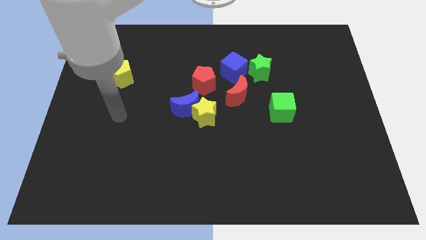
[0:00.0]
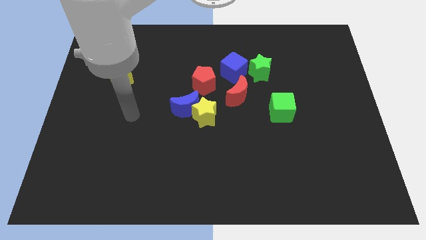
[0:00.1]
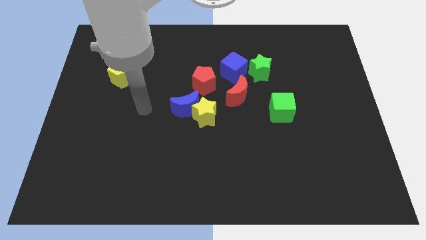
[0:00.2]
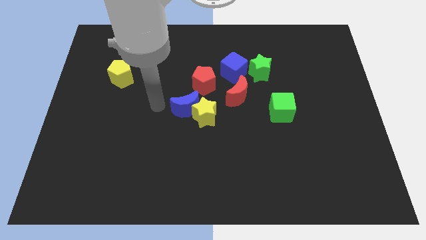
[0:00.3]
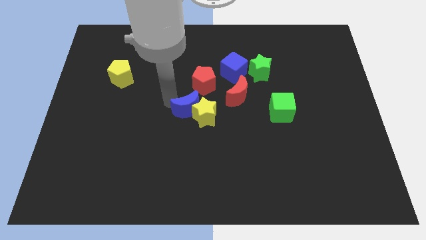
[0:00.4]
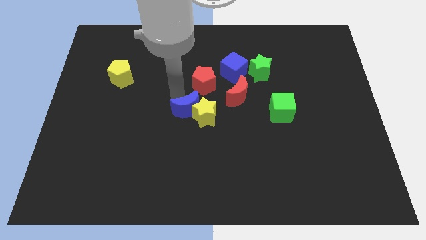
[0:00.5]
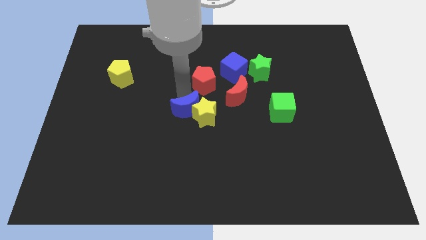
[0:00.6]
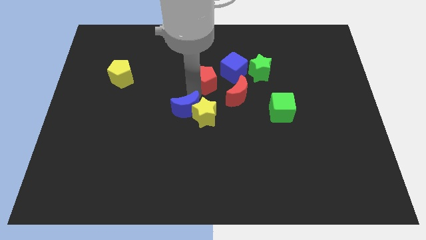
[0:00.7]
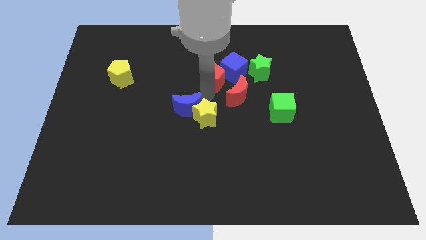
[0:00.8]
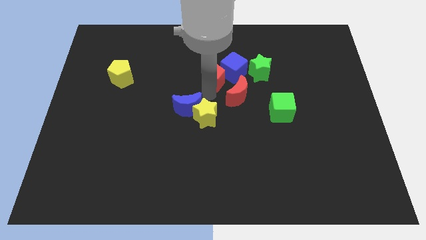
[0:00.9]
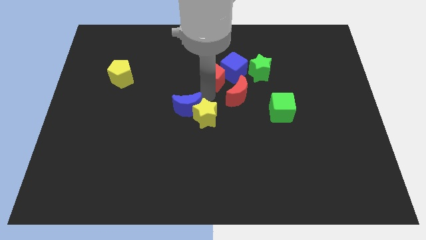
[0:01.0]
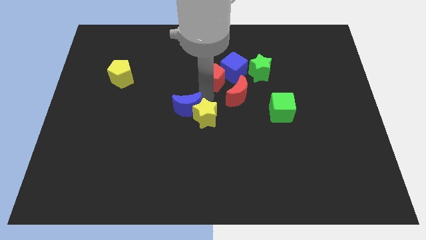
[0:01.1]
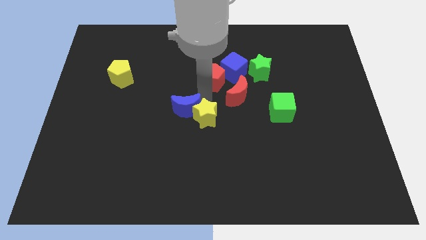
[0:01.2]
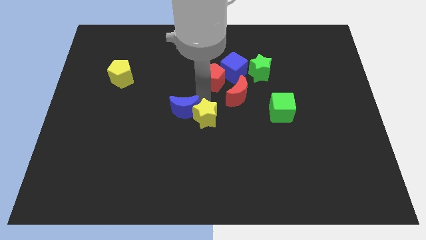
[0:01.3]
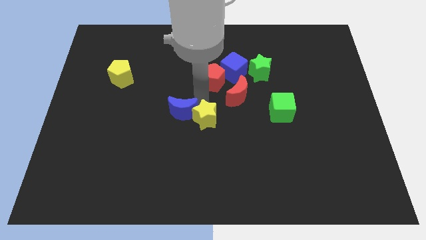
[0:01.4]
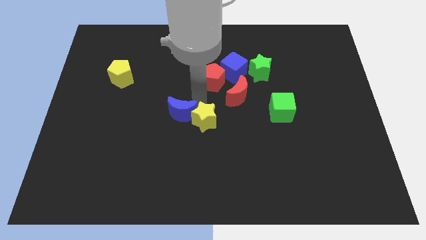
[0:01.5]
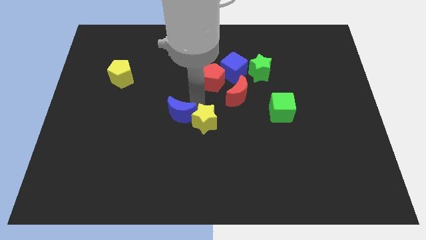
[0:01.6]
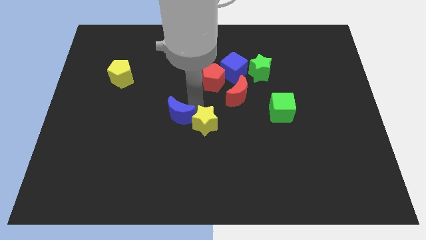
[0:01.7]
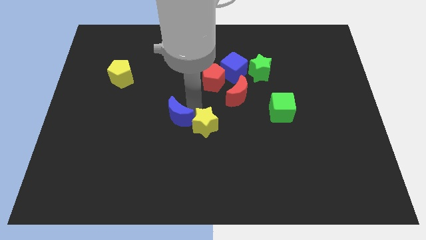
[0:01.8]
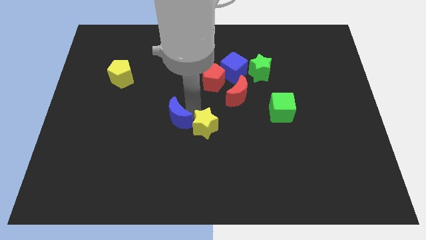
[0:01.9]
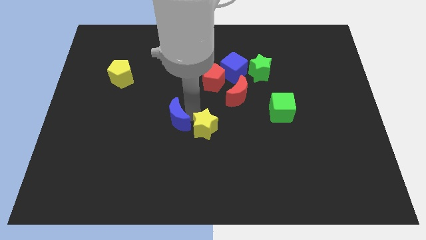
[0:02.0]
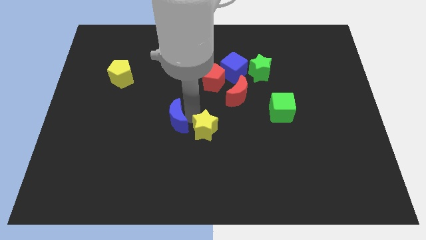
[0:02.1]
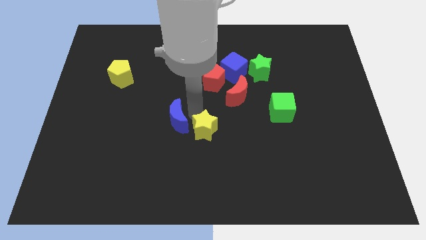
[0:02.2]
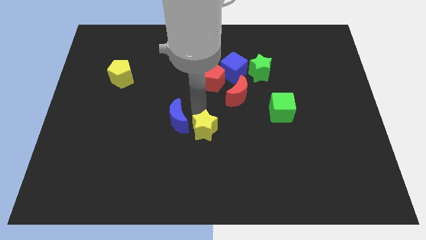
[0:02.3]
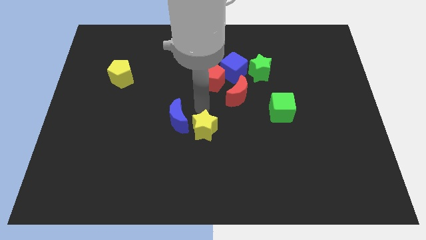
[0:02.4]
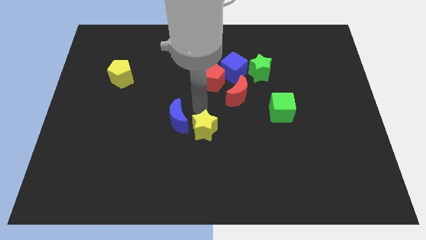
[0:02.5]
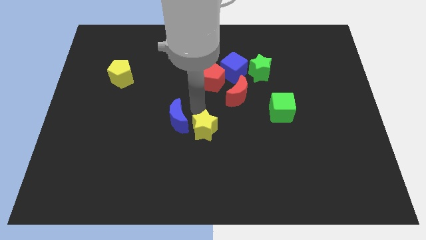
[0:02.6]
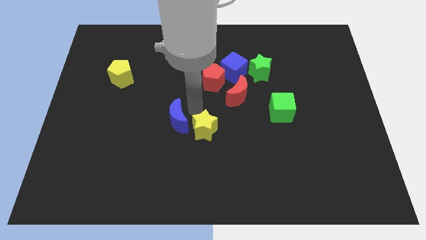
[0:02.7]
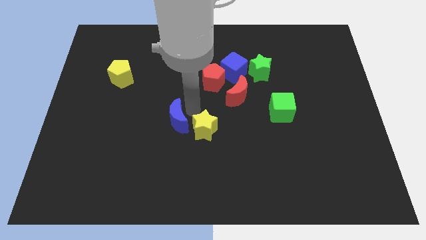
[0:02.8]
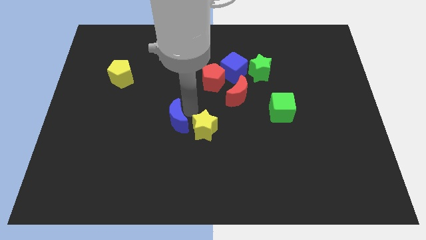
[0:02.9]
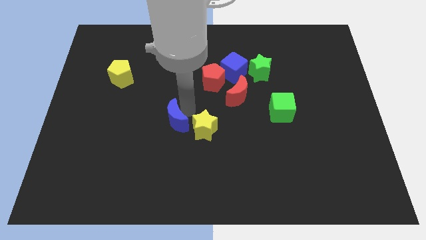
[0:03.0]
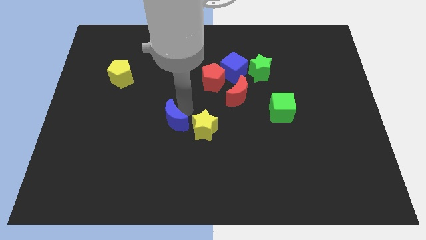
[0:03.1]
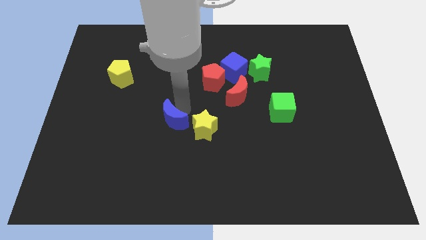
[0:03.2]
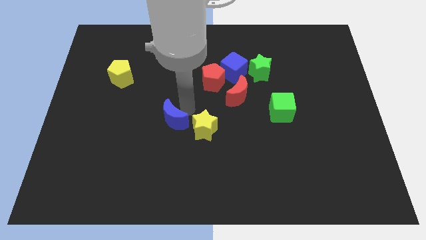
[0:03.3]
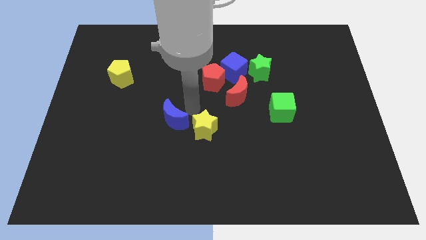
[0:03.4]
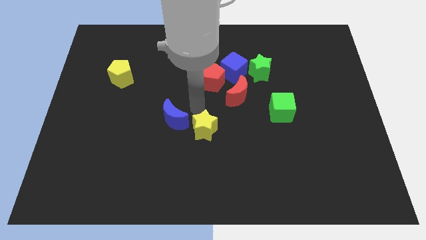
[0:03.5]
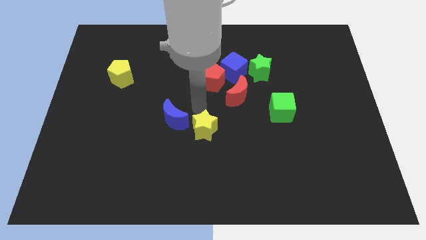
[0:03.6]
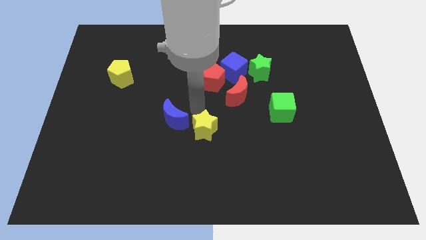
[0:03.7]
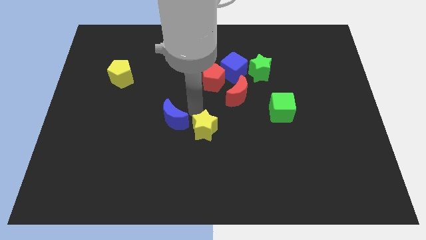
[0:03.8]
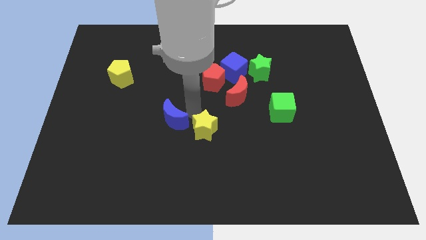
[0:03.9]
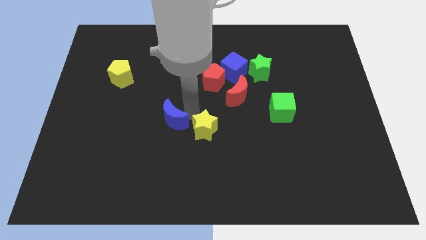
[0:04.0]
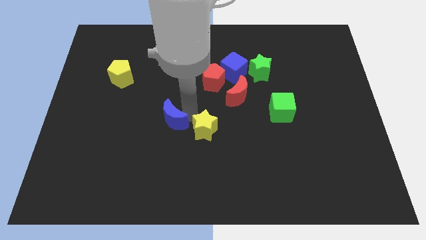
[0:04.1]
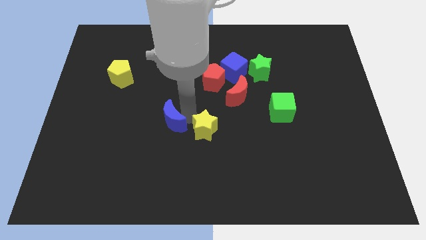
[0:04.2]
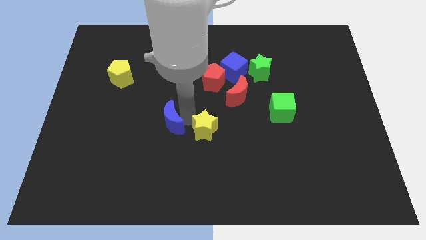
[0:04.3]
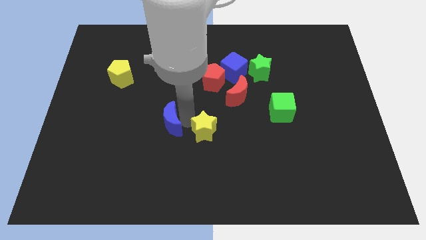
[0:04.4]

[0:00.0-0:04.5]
separate the blue moon from the yellow star and red pentagon

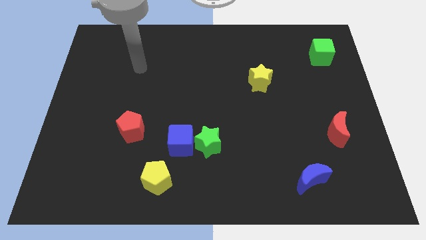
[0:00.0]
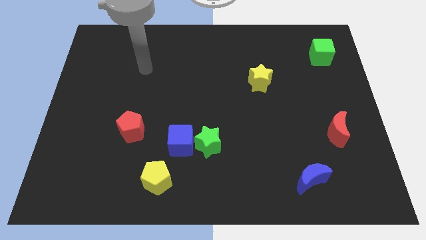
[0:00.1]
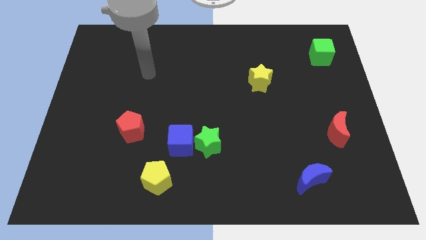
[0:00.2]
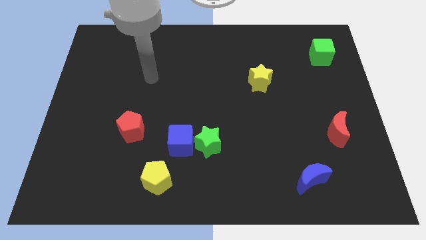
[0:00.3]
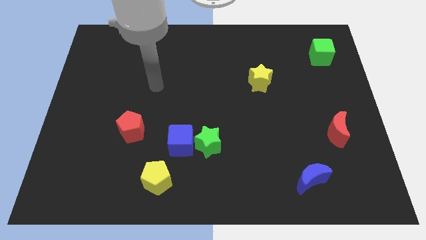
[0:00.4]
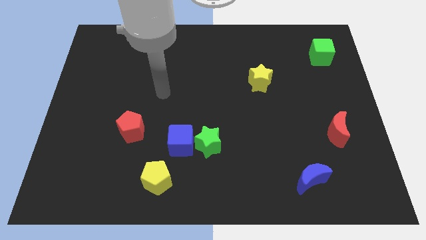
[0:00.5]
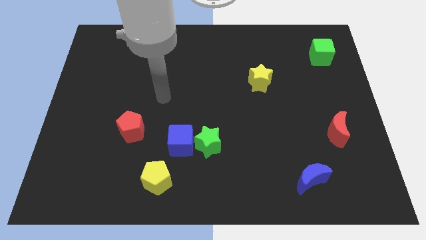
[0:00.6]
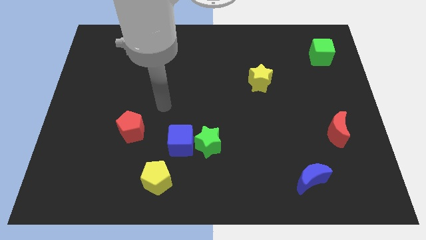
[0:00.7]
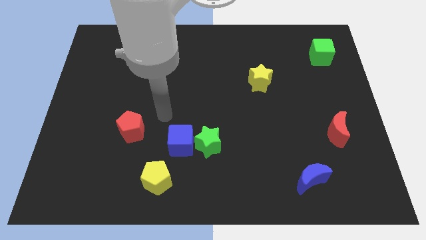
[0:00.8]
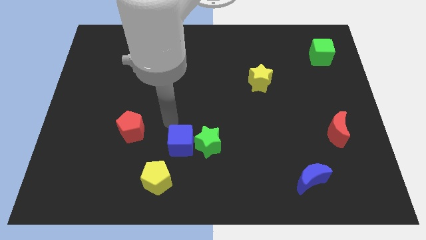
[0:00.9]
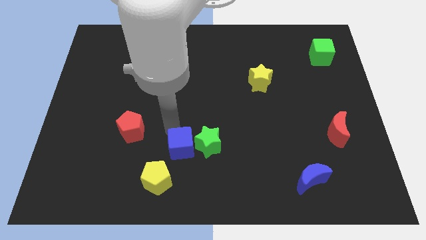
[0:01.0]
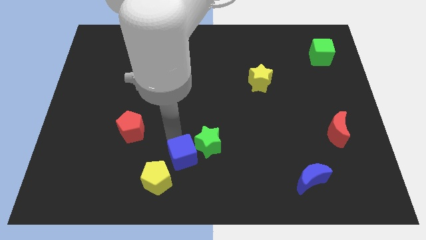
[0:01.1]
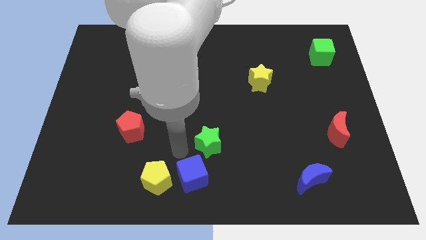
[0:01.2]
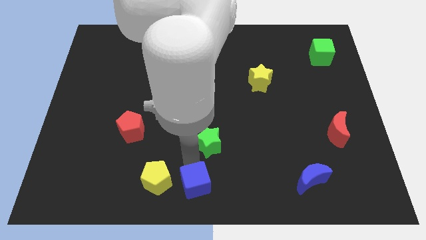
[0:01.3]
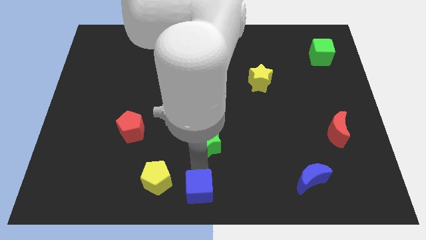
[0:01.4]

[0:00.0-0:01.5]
move the green star away from the blue cube

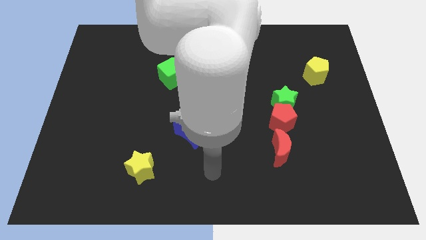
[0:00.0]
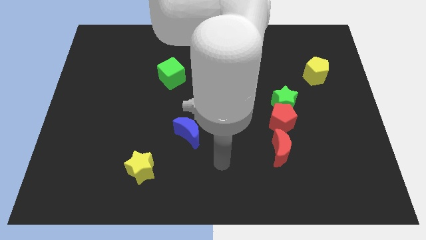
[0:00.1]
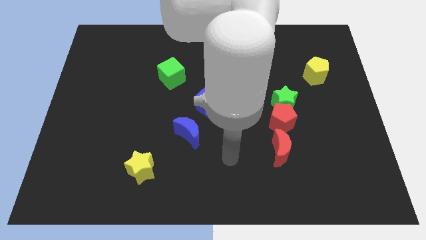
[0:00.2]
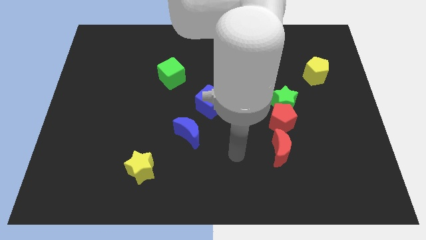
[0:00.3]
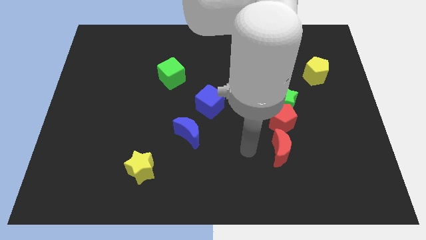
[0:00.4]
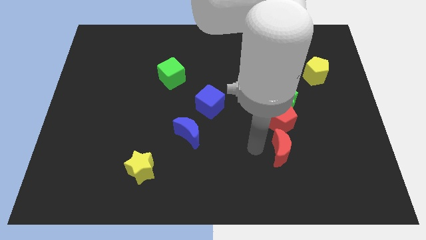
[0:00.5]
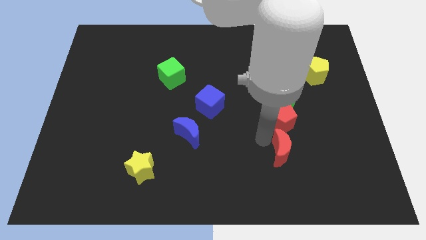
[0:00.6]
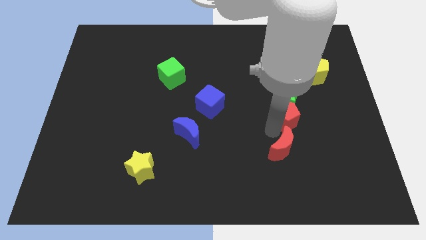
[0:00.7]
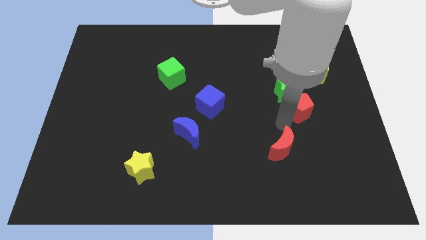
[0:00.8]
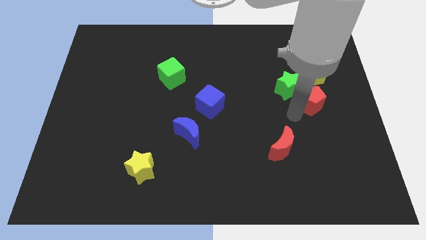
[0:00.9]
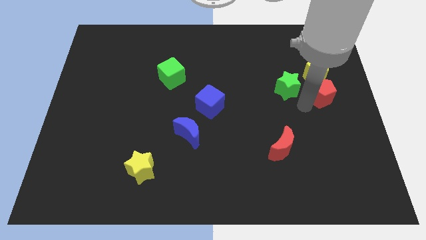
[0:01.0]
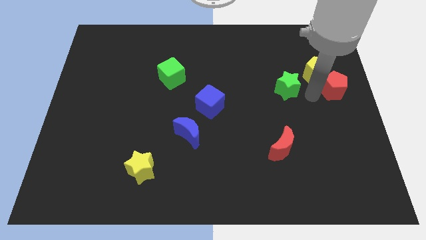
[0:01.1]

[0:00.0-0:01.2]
pull the green star apart from the red pentagon

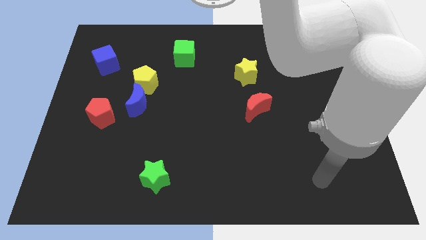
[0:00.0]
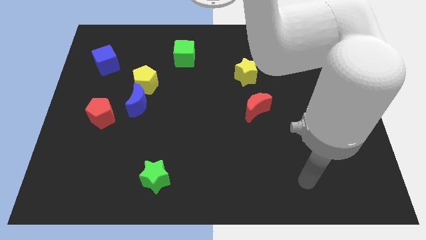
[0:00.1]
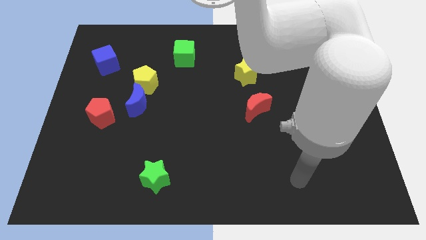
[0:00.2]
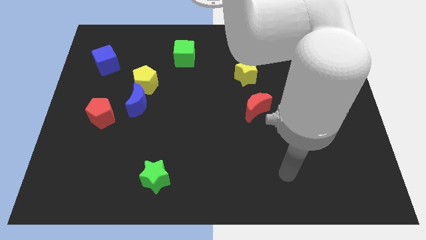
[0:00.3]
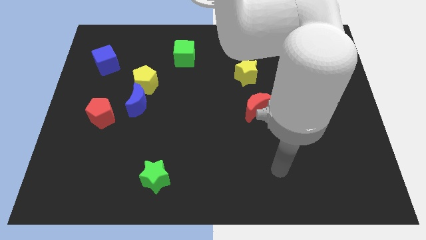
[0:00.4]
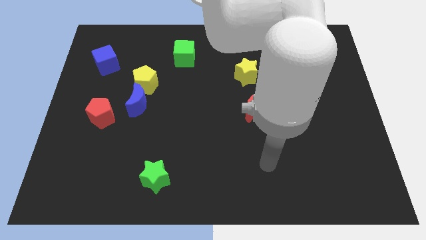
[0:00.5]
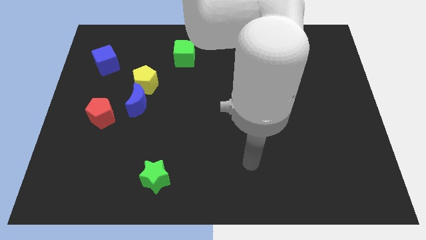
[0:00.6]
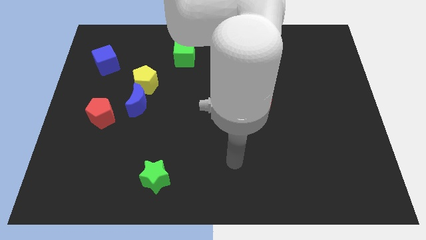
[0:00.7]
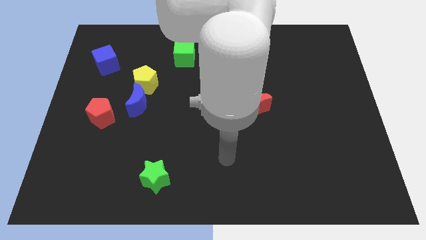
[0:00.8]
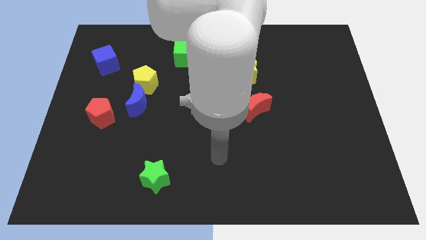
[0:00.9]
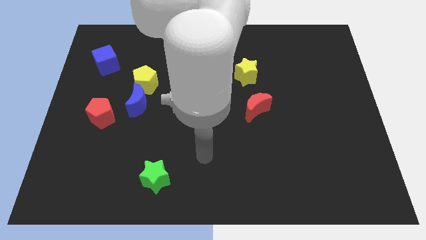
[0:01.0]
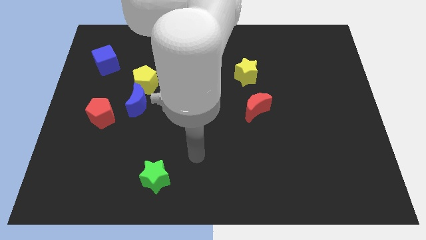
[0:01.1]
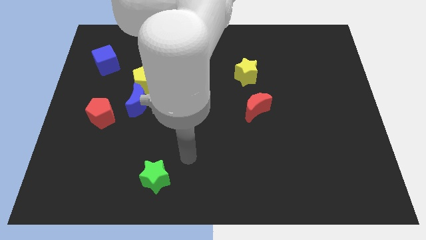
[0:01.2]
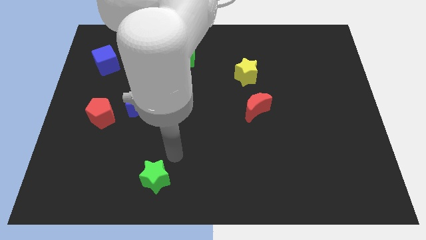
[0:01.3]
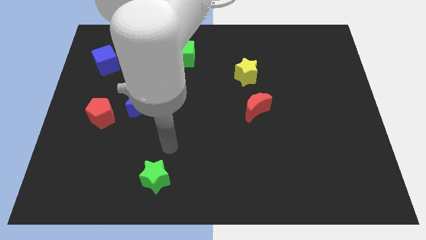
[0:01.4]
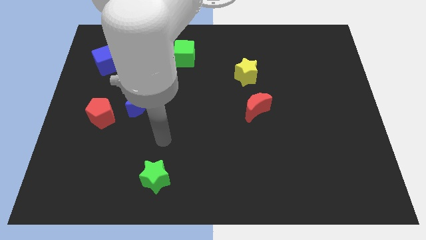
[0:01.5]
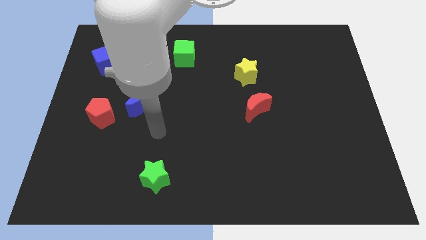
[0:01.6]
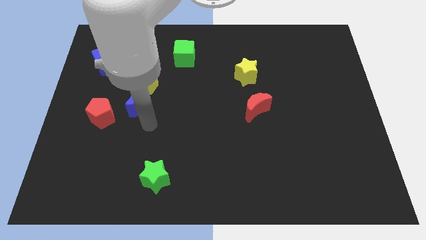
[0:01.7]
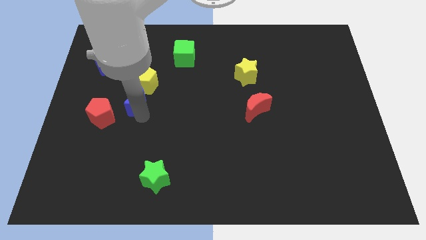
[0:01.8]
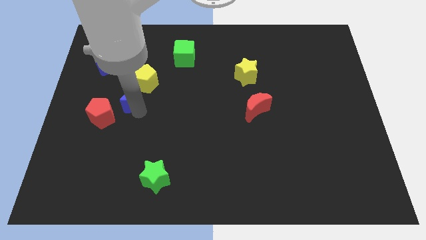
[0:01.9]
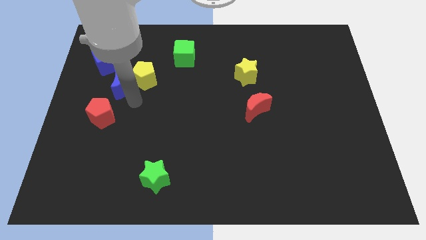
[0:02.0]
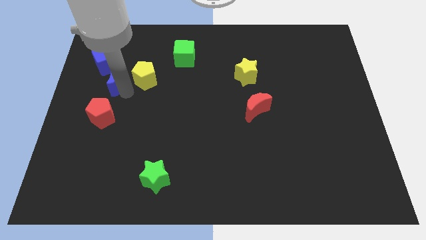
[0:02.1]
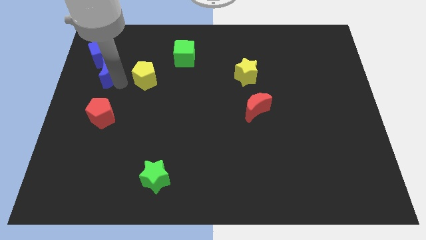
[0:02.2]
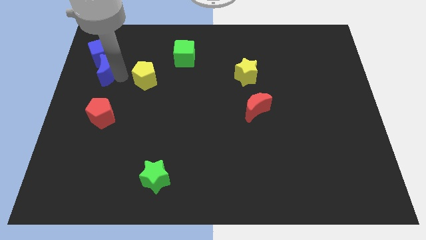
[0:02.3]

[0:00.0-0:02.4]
pull the yellow pentagon apart from the blue moon
